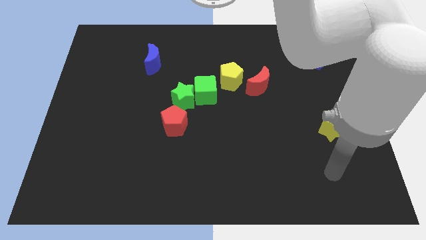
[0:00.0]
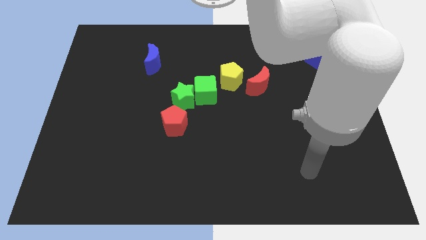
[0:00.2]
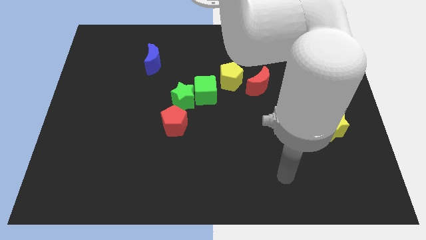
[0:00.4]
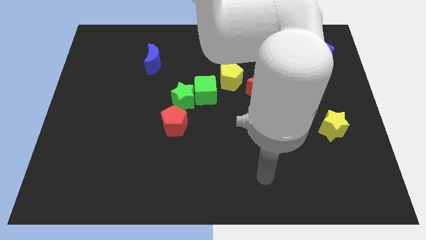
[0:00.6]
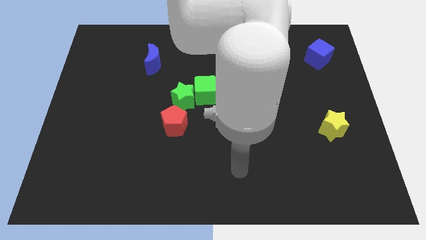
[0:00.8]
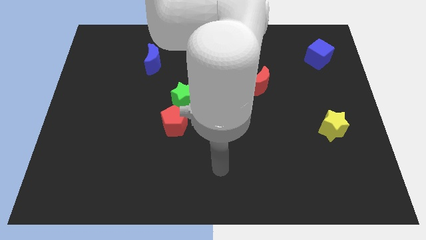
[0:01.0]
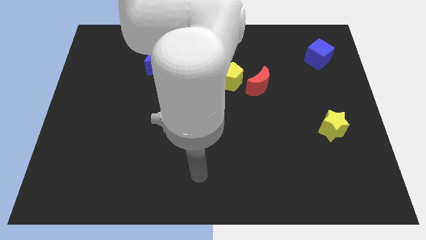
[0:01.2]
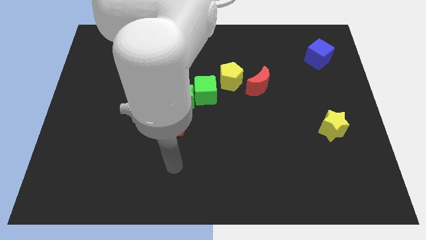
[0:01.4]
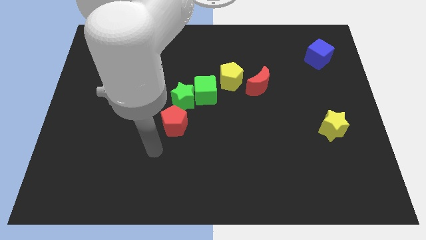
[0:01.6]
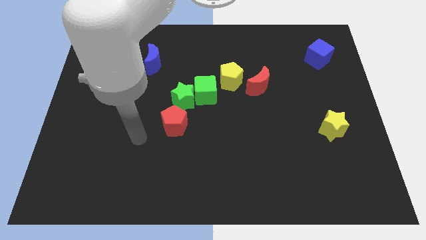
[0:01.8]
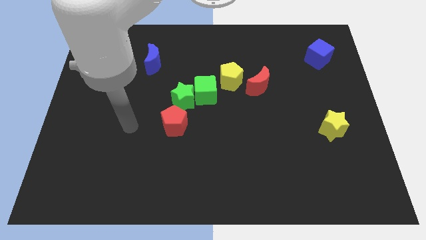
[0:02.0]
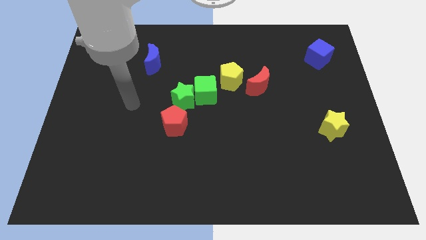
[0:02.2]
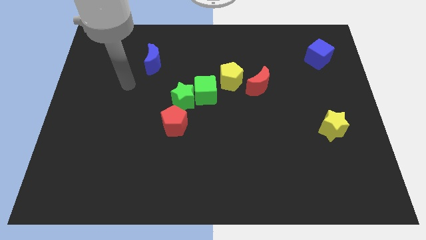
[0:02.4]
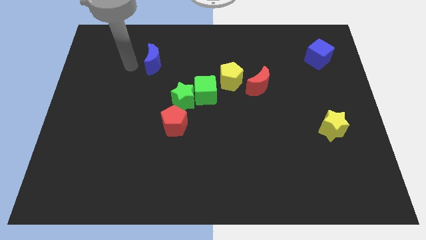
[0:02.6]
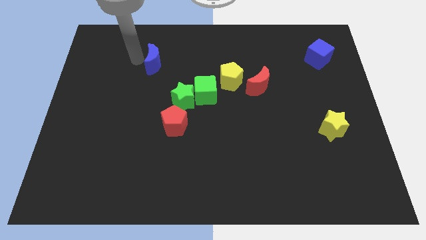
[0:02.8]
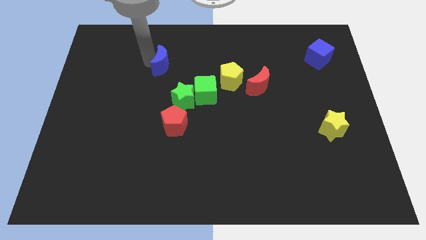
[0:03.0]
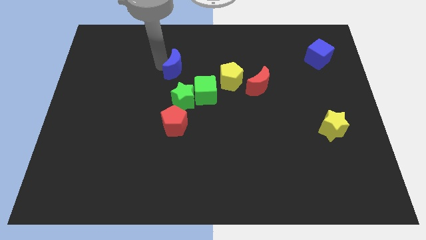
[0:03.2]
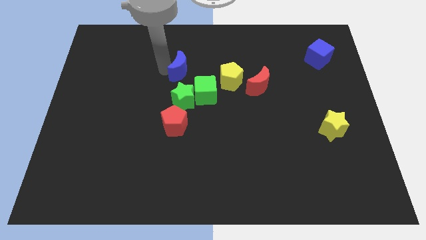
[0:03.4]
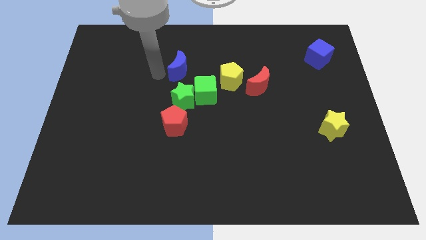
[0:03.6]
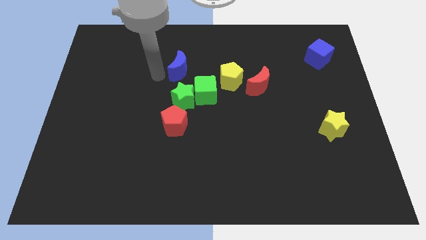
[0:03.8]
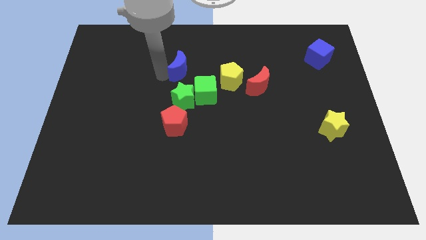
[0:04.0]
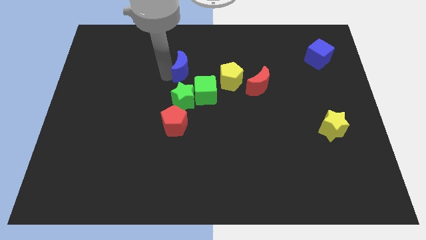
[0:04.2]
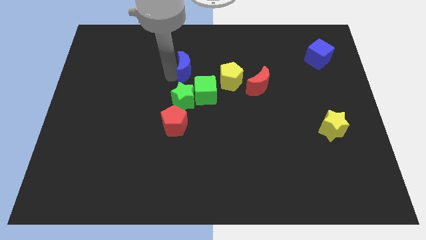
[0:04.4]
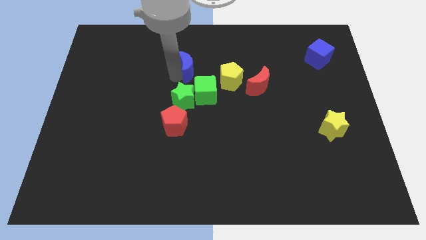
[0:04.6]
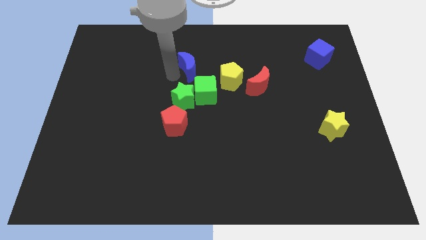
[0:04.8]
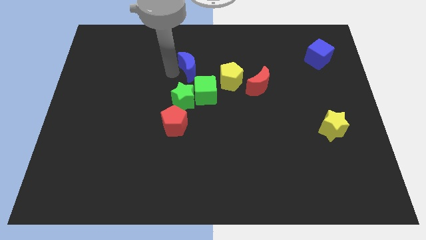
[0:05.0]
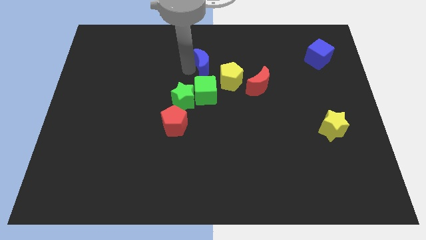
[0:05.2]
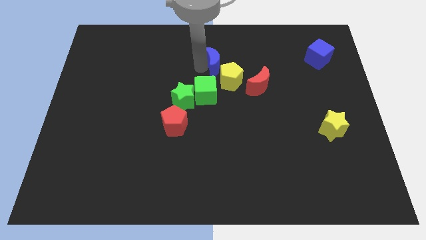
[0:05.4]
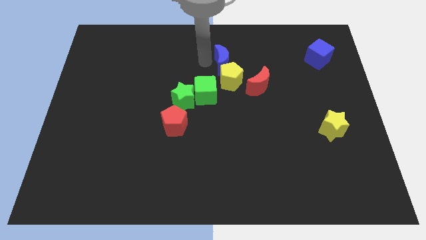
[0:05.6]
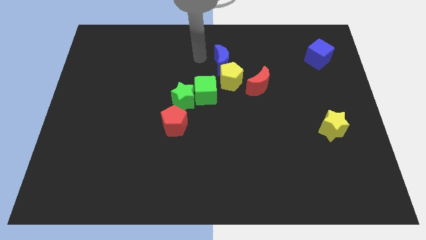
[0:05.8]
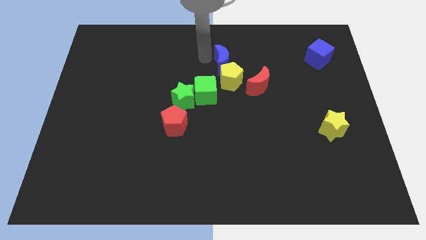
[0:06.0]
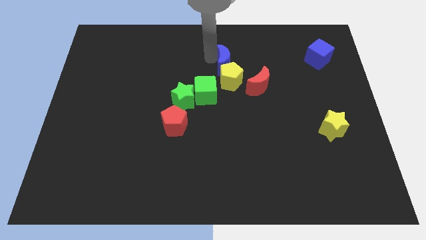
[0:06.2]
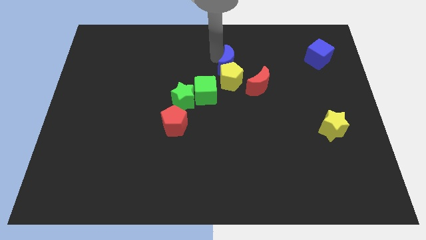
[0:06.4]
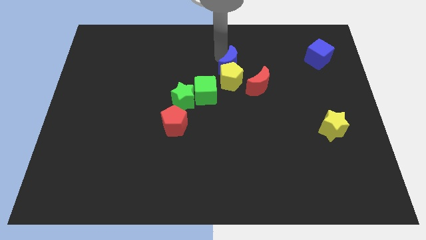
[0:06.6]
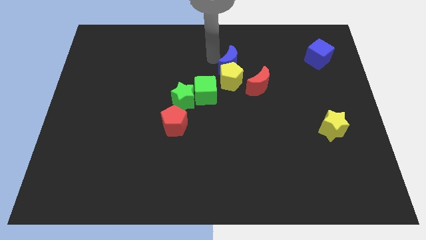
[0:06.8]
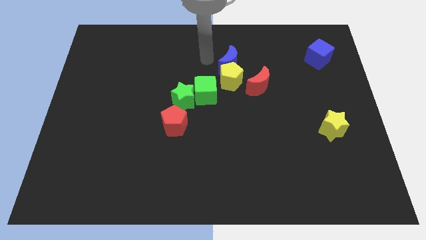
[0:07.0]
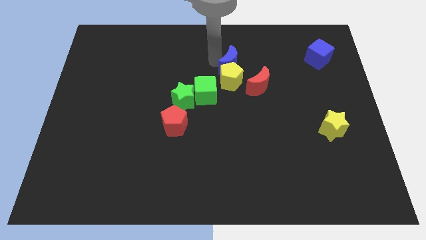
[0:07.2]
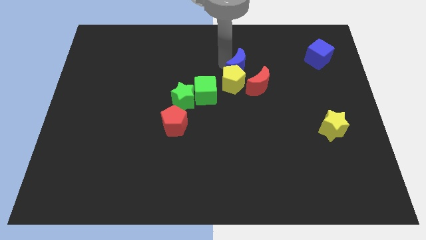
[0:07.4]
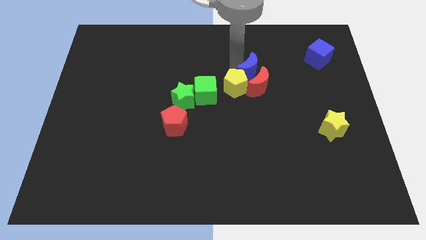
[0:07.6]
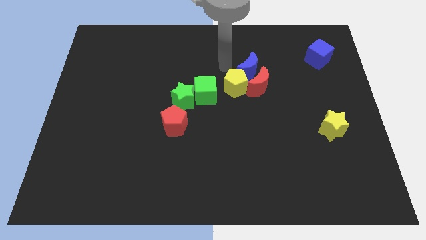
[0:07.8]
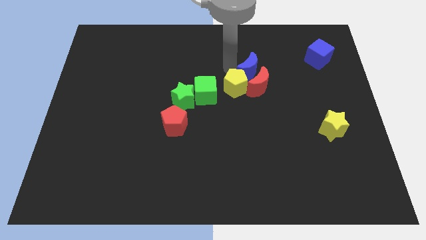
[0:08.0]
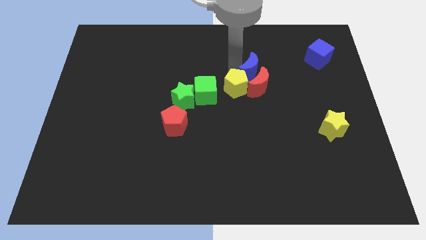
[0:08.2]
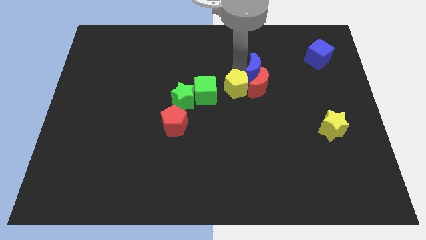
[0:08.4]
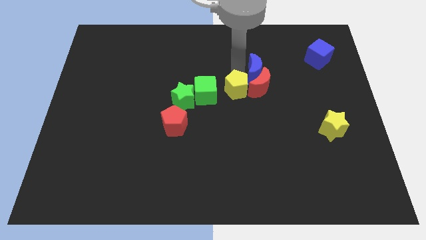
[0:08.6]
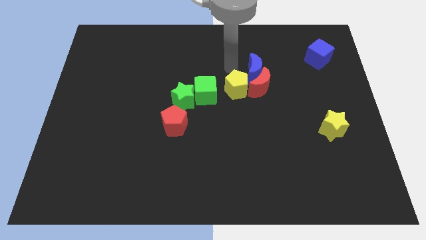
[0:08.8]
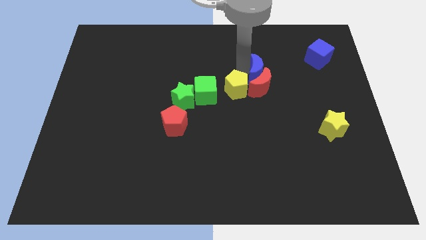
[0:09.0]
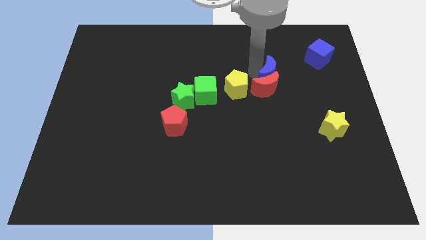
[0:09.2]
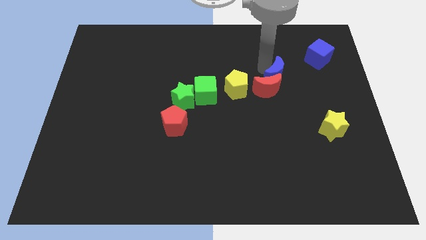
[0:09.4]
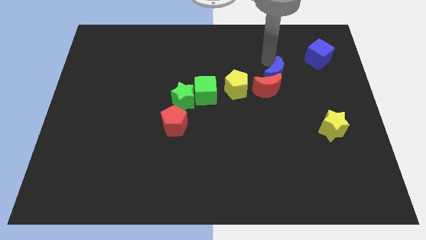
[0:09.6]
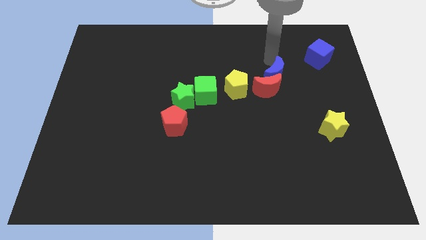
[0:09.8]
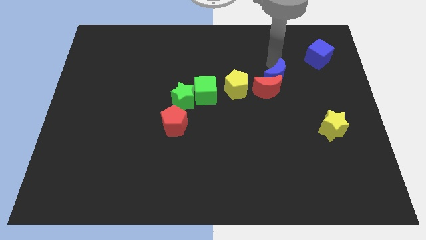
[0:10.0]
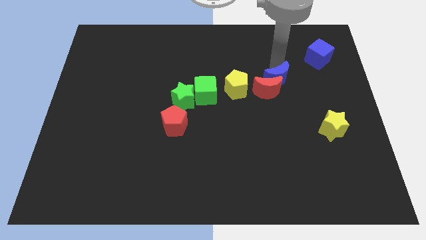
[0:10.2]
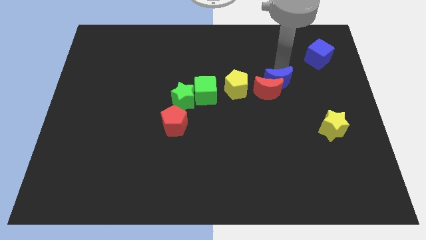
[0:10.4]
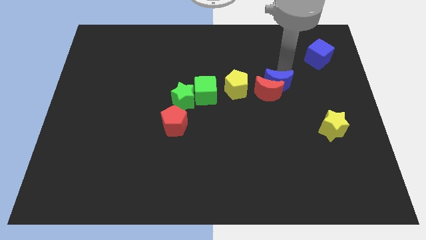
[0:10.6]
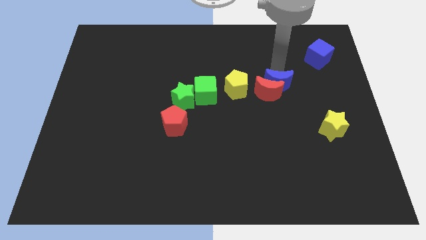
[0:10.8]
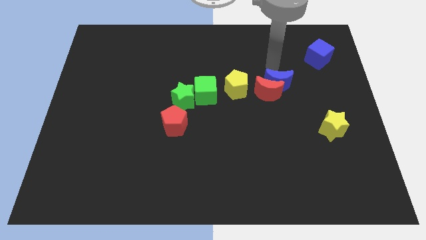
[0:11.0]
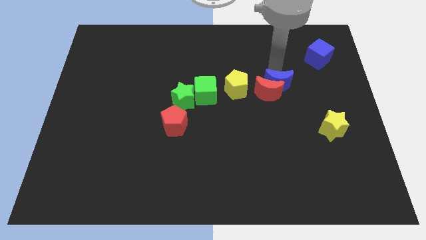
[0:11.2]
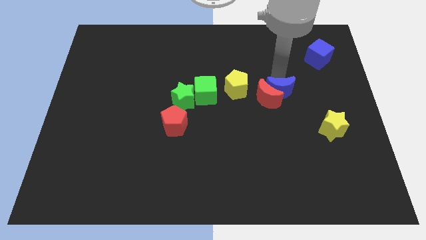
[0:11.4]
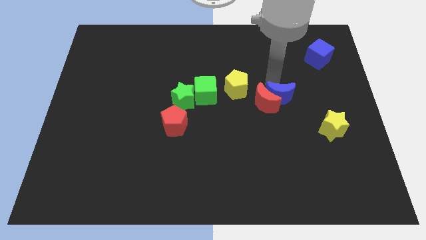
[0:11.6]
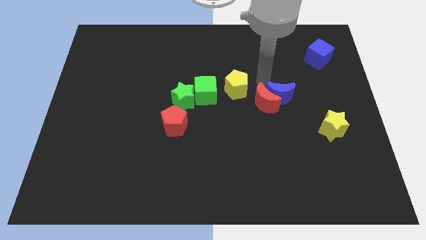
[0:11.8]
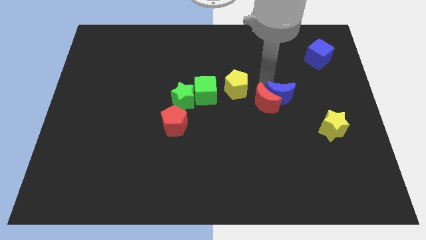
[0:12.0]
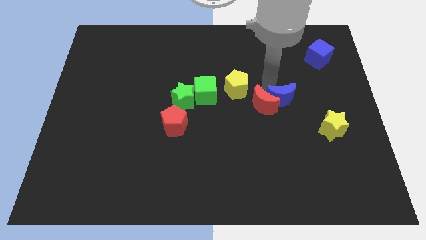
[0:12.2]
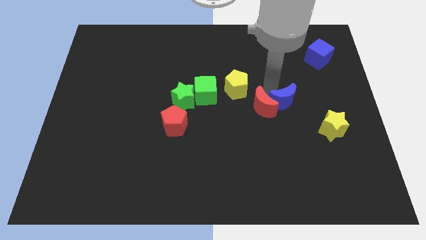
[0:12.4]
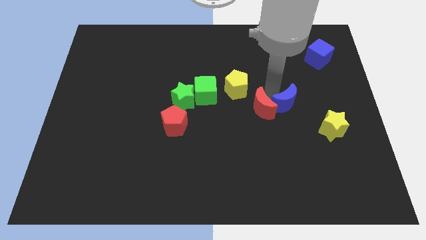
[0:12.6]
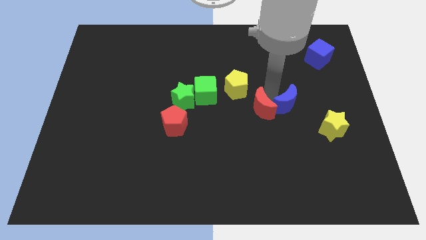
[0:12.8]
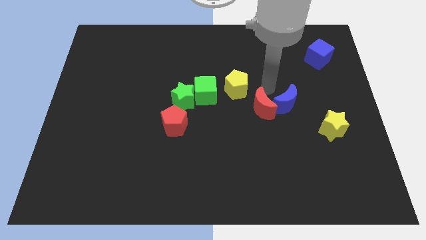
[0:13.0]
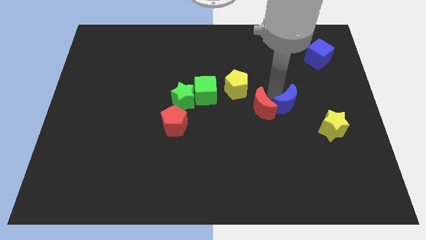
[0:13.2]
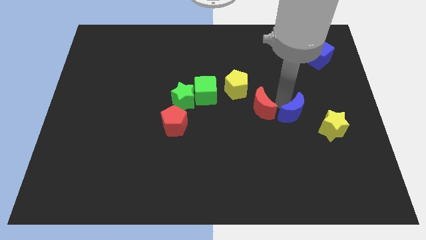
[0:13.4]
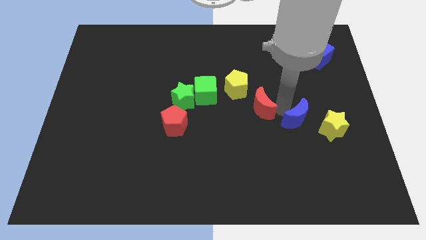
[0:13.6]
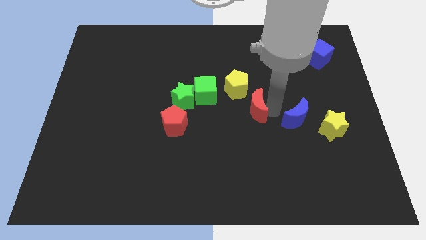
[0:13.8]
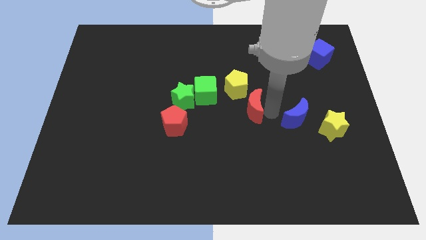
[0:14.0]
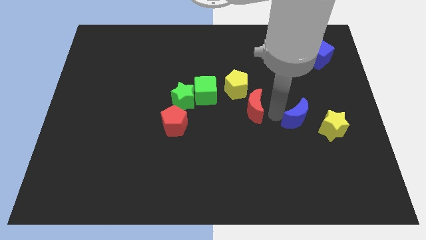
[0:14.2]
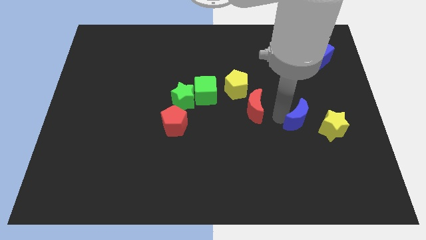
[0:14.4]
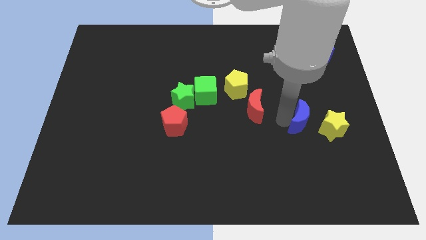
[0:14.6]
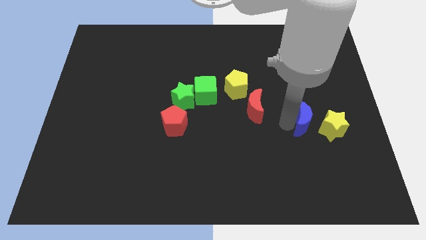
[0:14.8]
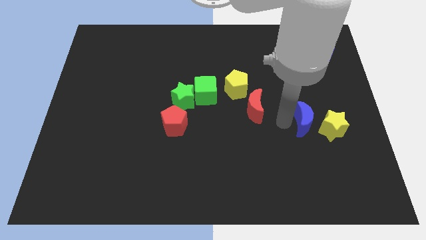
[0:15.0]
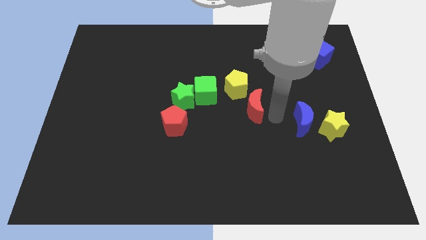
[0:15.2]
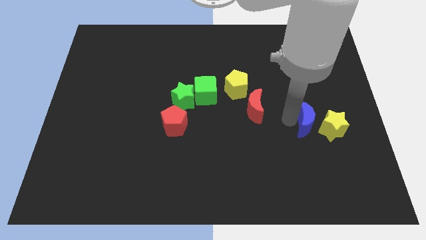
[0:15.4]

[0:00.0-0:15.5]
slide the blue moon close to the yellow star
